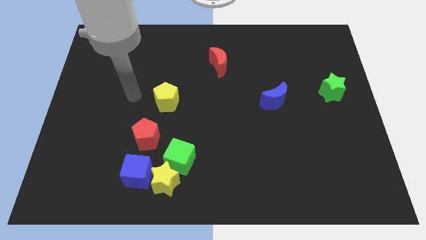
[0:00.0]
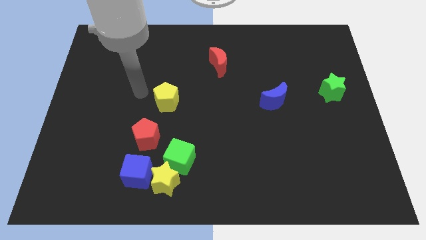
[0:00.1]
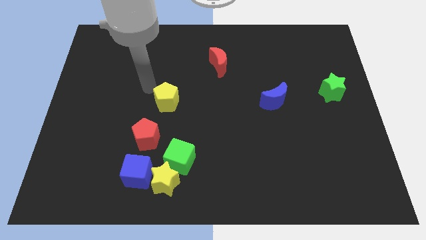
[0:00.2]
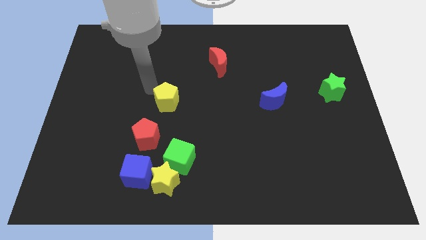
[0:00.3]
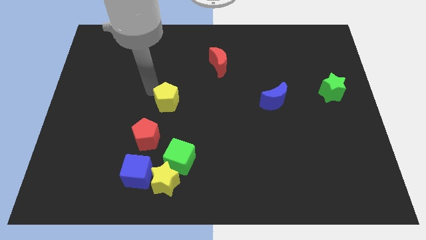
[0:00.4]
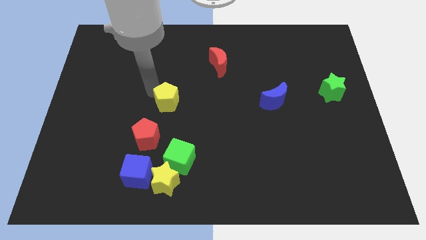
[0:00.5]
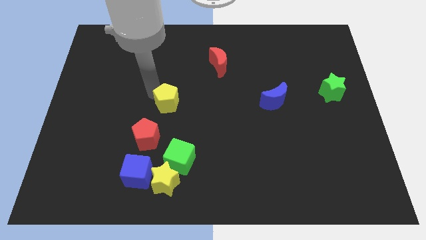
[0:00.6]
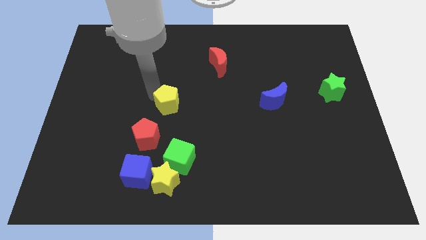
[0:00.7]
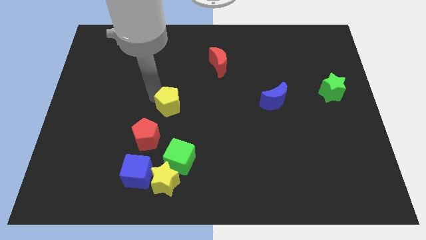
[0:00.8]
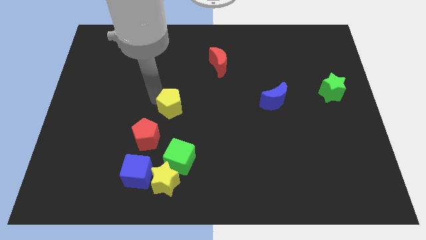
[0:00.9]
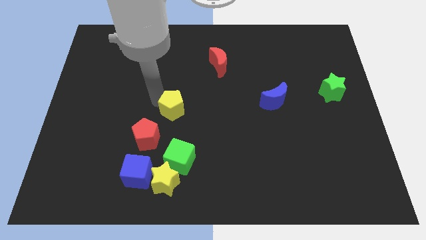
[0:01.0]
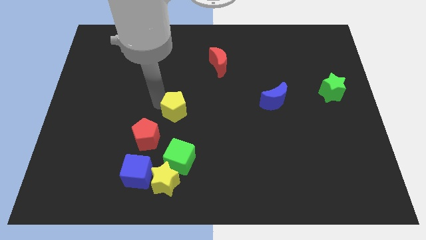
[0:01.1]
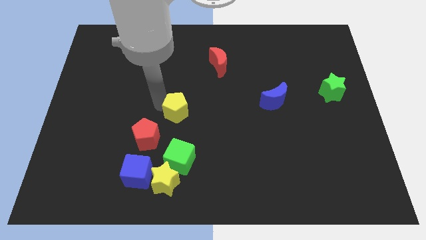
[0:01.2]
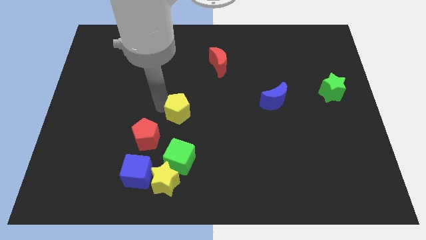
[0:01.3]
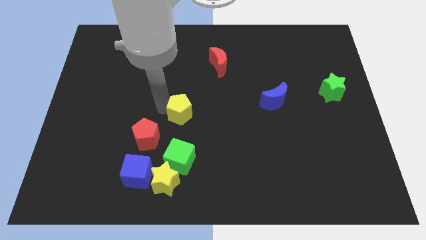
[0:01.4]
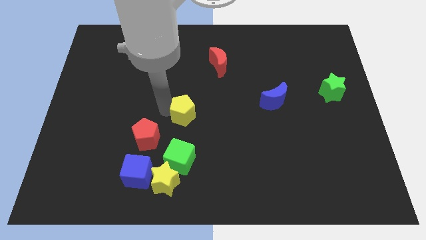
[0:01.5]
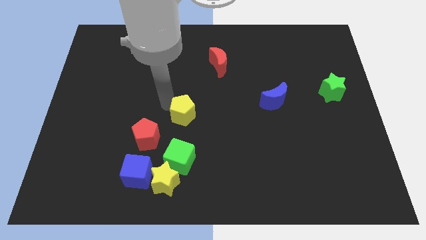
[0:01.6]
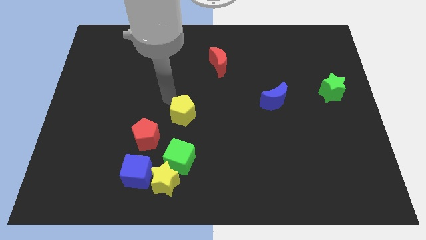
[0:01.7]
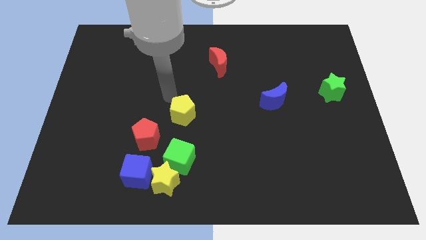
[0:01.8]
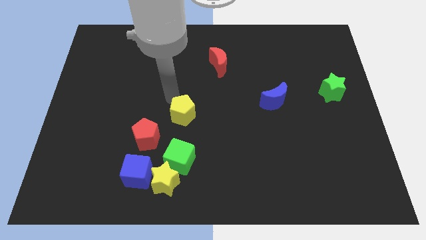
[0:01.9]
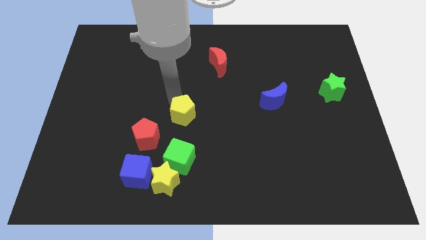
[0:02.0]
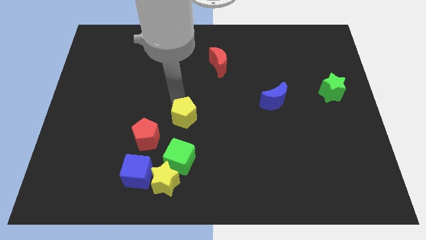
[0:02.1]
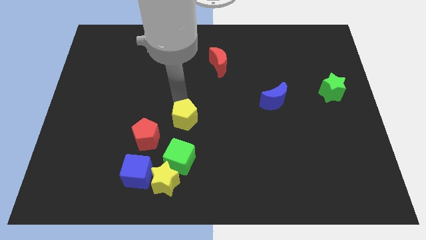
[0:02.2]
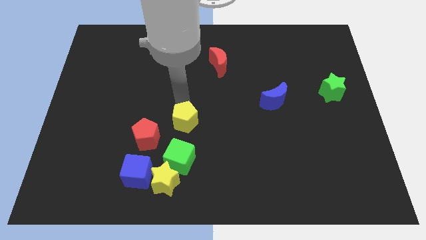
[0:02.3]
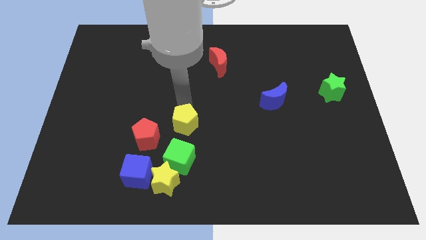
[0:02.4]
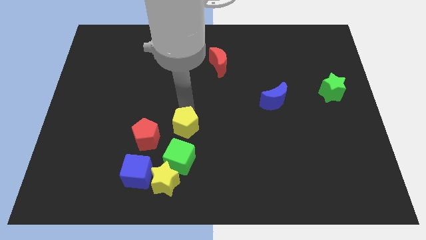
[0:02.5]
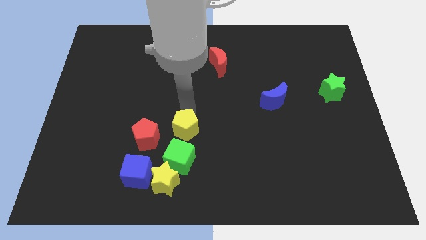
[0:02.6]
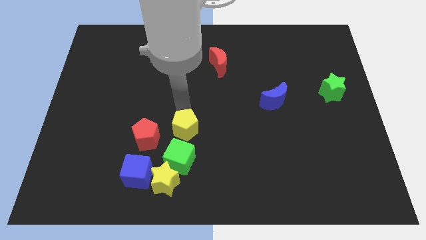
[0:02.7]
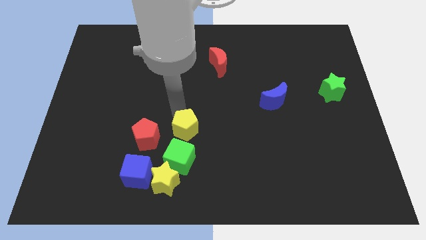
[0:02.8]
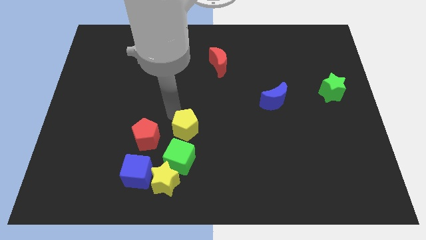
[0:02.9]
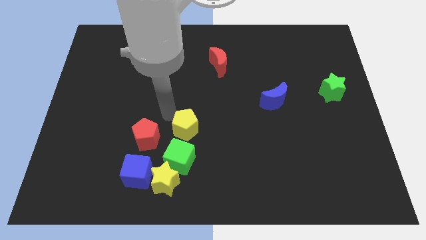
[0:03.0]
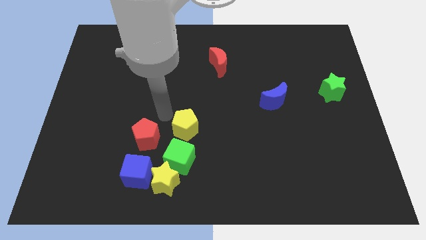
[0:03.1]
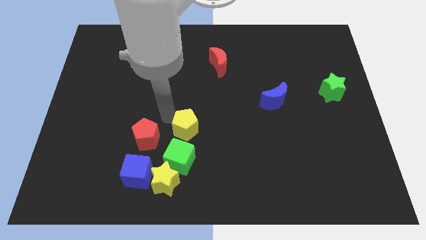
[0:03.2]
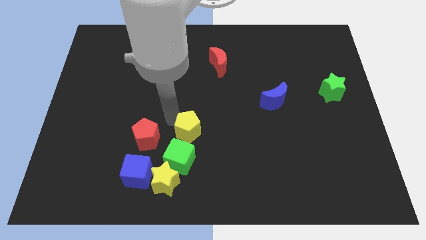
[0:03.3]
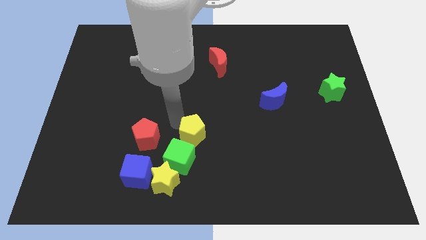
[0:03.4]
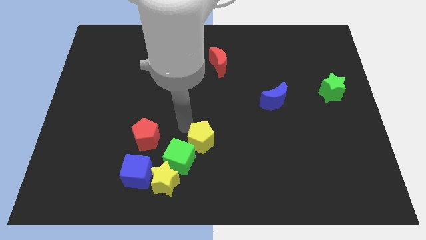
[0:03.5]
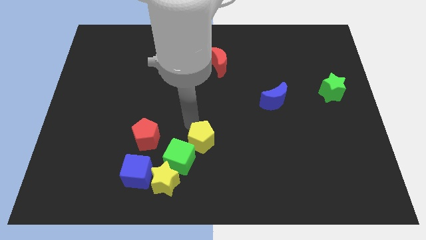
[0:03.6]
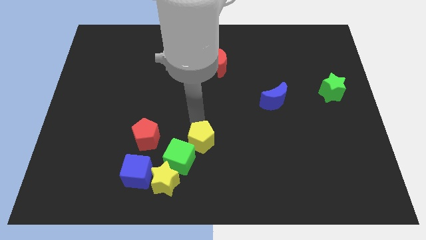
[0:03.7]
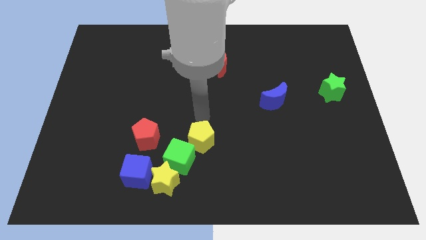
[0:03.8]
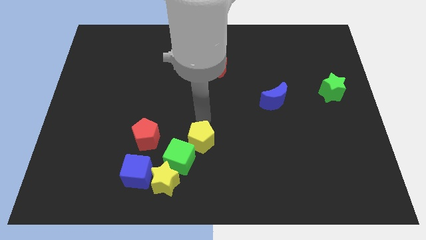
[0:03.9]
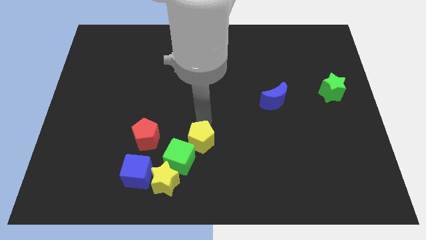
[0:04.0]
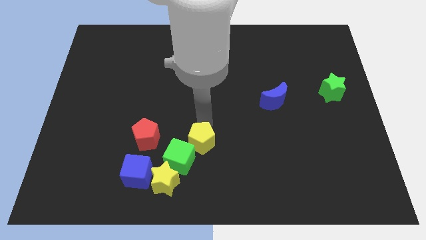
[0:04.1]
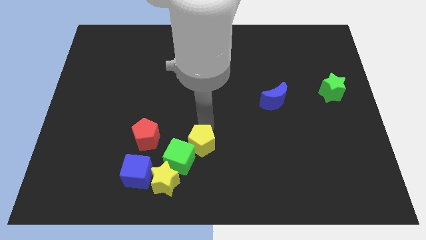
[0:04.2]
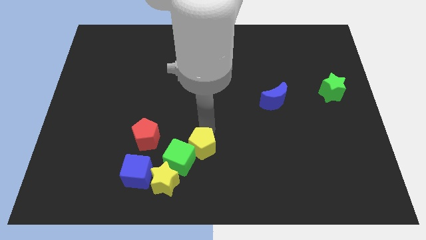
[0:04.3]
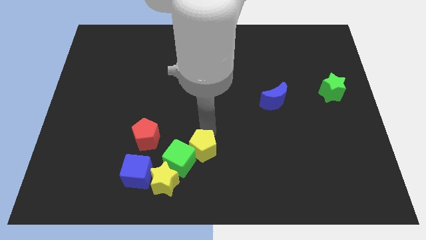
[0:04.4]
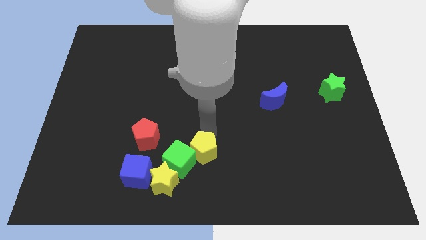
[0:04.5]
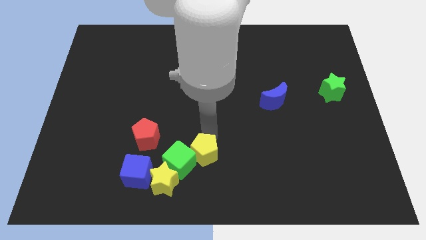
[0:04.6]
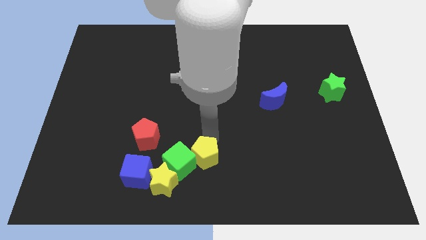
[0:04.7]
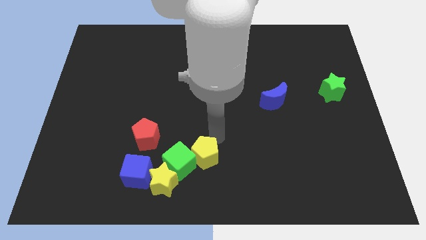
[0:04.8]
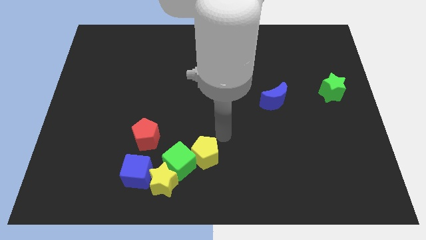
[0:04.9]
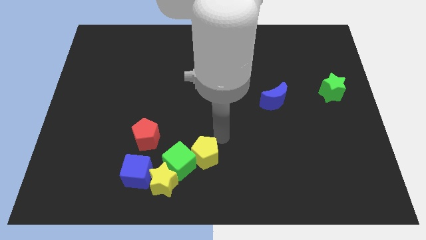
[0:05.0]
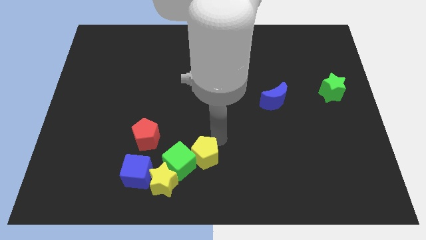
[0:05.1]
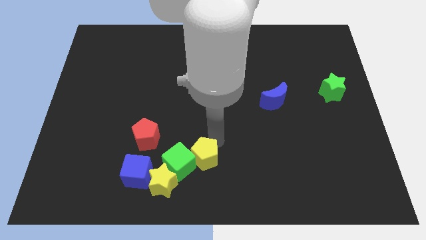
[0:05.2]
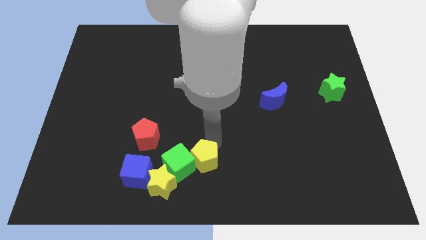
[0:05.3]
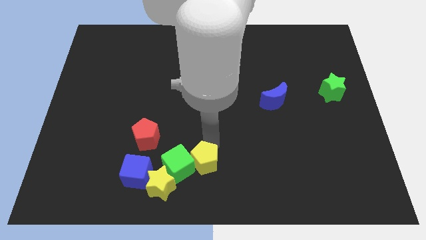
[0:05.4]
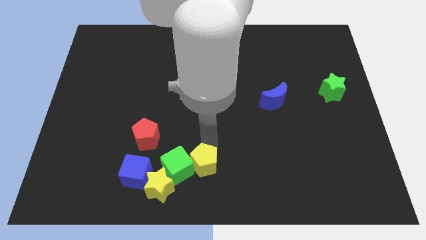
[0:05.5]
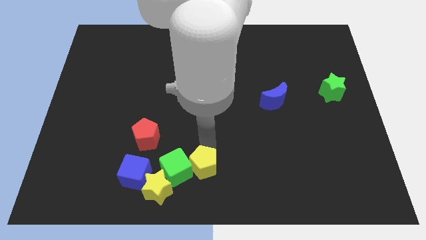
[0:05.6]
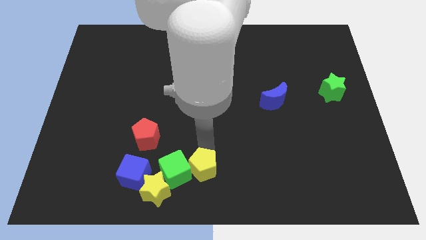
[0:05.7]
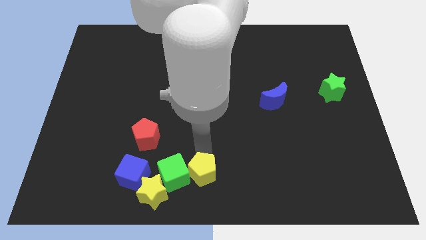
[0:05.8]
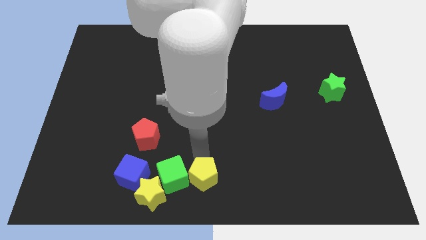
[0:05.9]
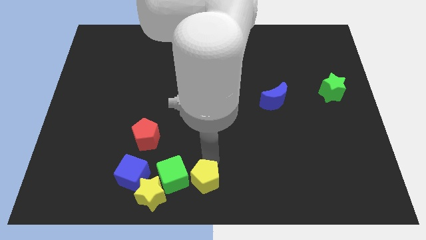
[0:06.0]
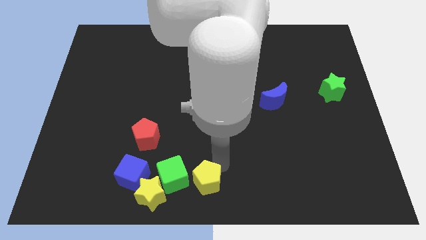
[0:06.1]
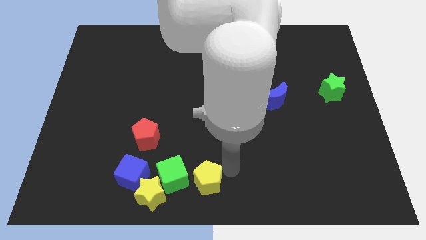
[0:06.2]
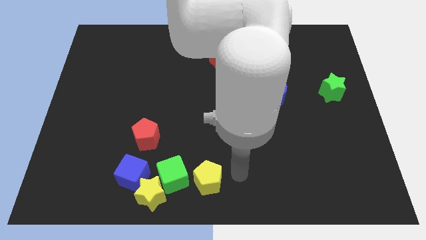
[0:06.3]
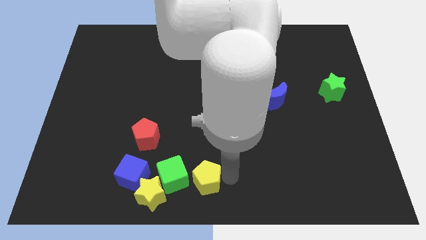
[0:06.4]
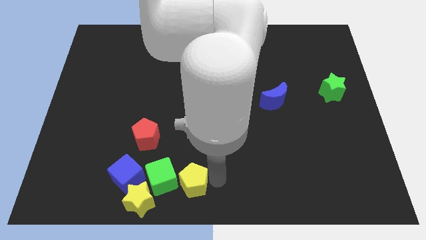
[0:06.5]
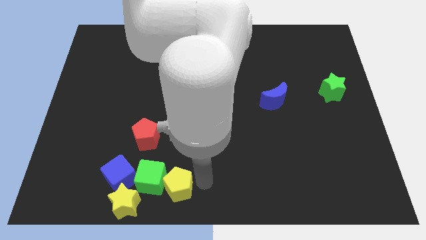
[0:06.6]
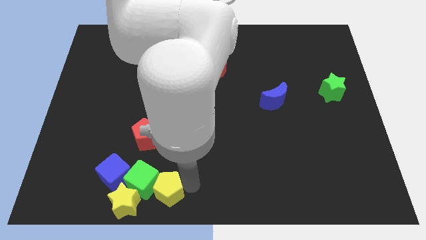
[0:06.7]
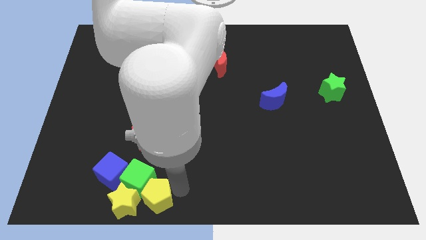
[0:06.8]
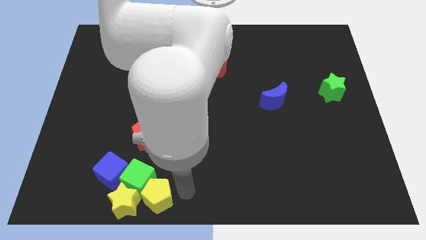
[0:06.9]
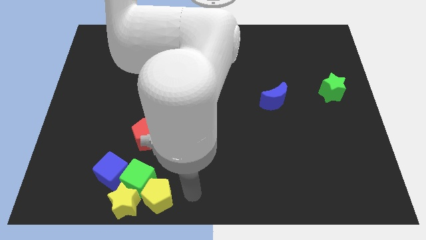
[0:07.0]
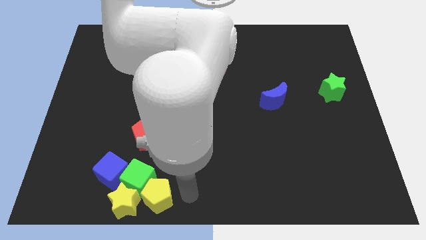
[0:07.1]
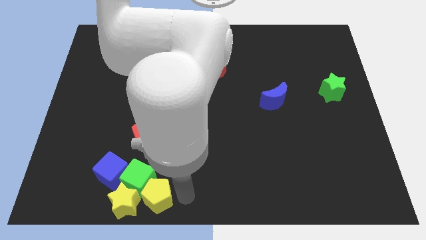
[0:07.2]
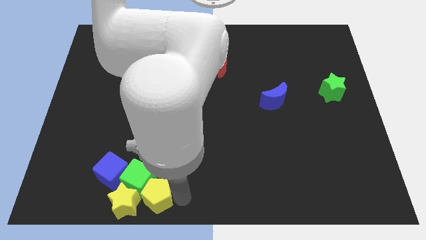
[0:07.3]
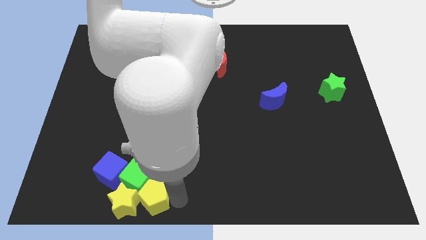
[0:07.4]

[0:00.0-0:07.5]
slide the yellow pentagon towards the yellow star
